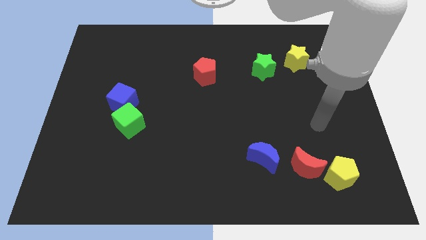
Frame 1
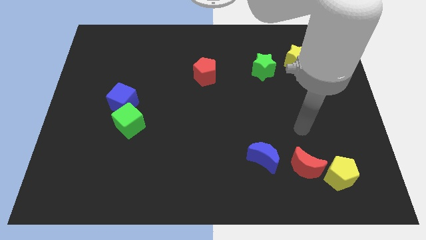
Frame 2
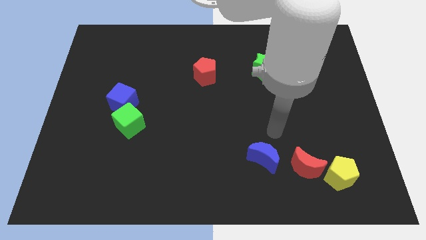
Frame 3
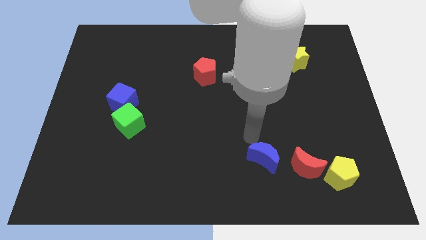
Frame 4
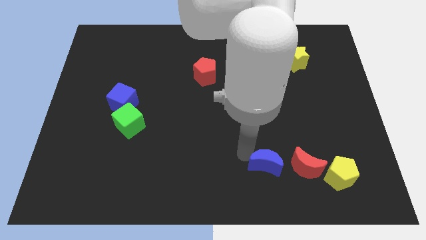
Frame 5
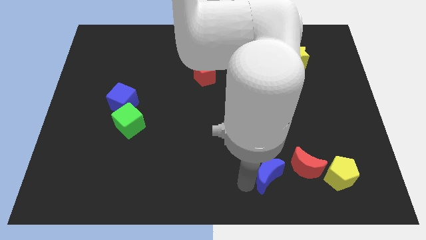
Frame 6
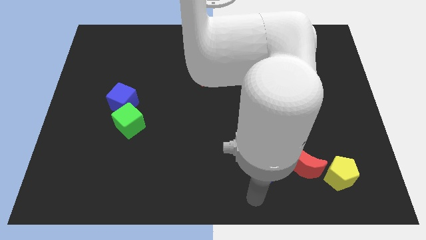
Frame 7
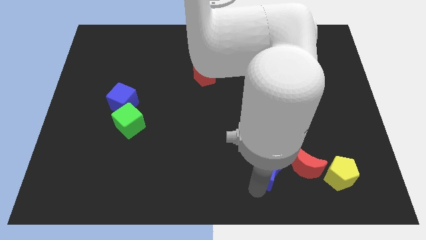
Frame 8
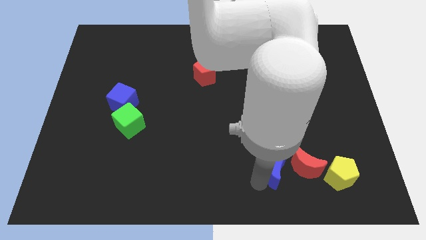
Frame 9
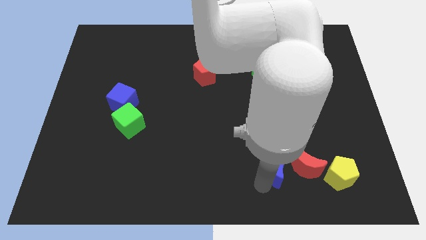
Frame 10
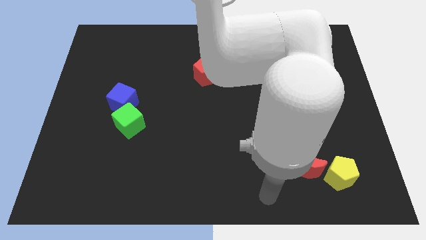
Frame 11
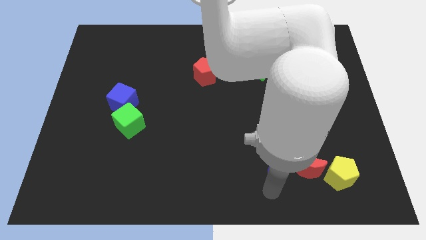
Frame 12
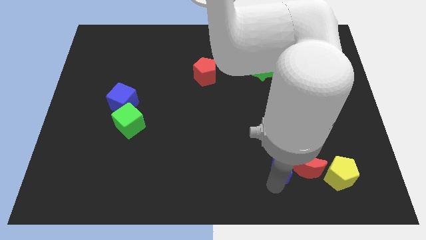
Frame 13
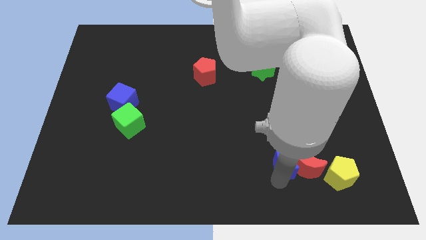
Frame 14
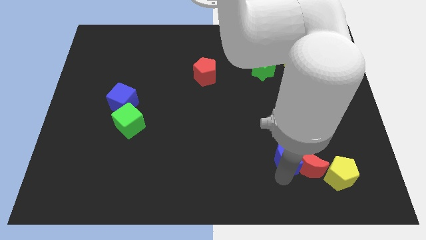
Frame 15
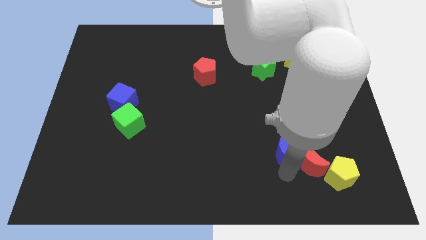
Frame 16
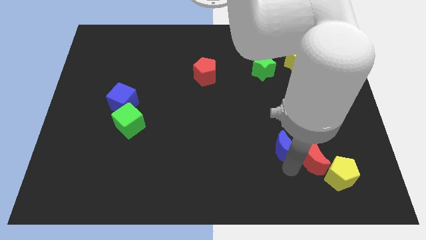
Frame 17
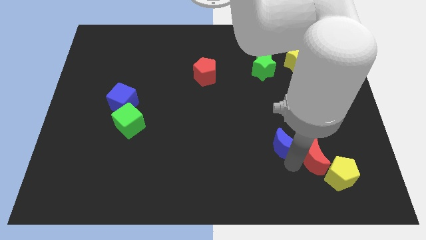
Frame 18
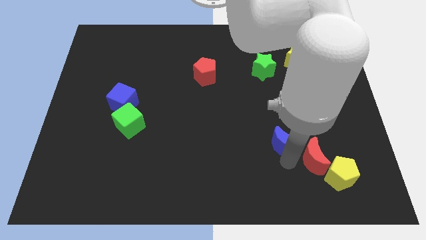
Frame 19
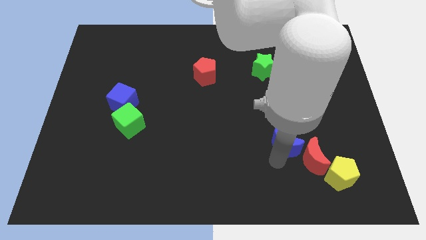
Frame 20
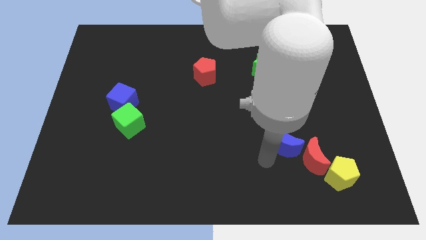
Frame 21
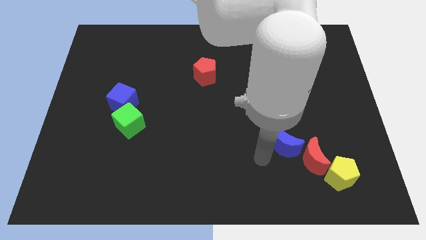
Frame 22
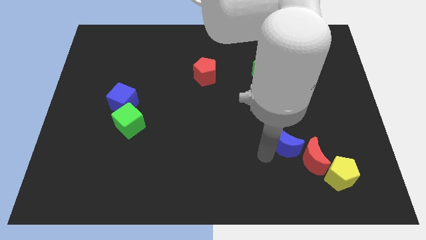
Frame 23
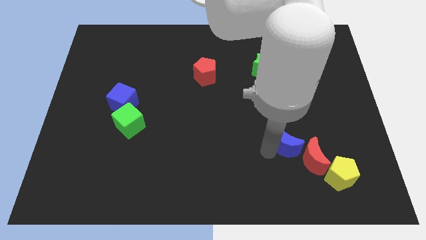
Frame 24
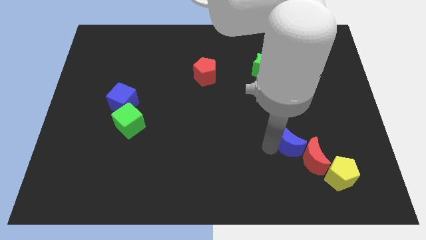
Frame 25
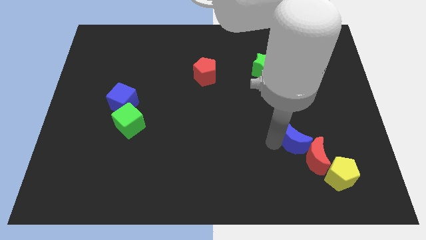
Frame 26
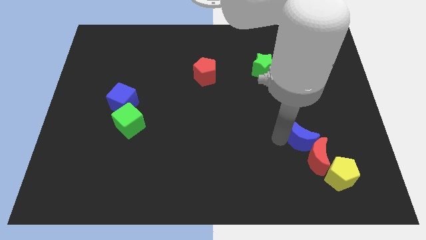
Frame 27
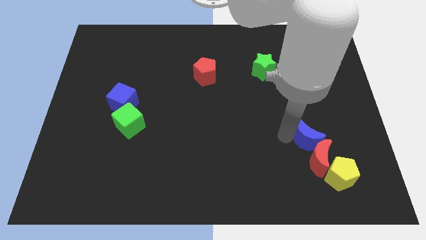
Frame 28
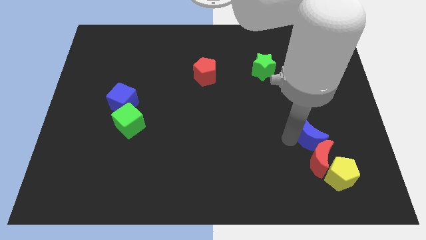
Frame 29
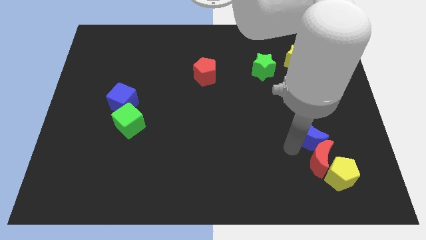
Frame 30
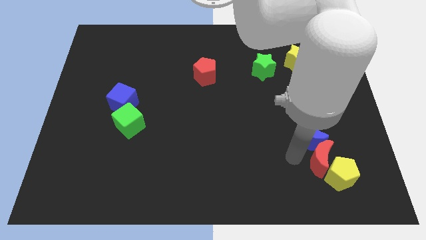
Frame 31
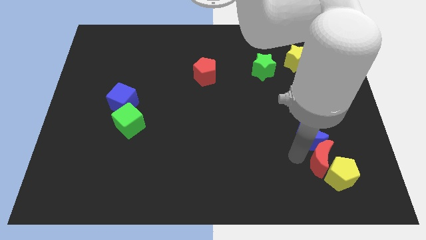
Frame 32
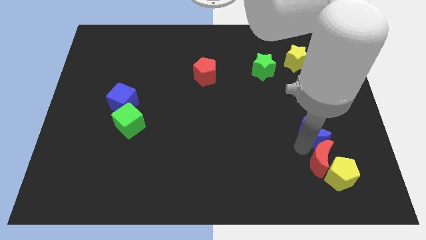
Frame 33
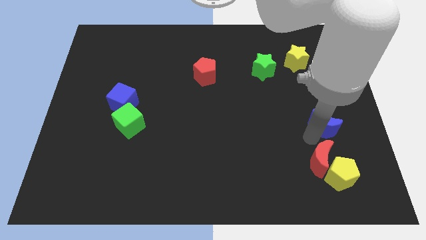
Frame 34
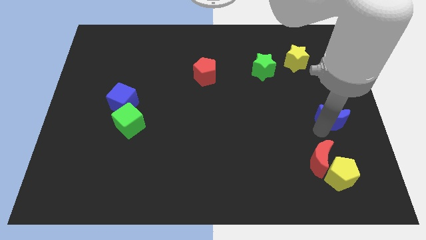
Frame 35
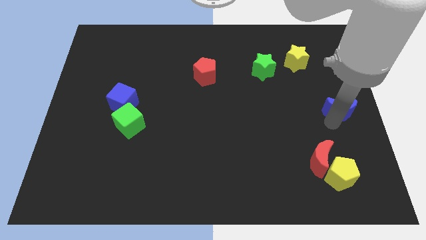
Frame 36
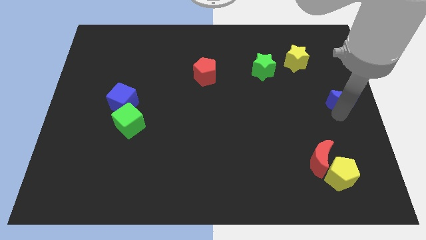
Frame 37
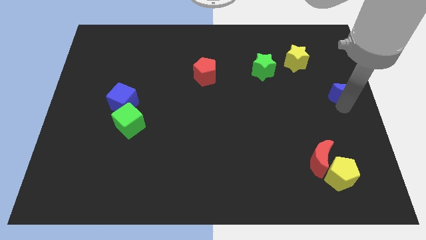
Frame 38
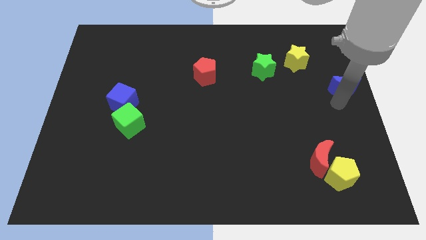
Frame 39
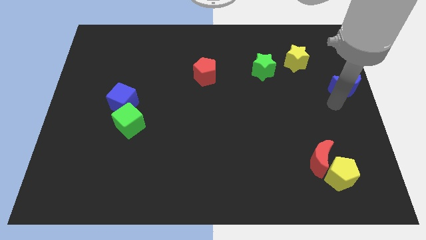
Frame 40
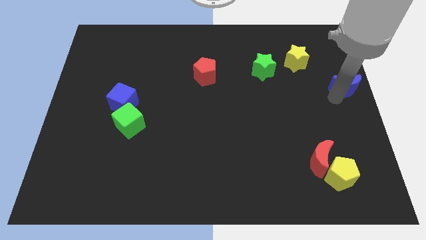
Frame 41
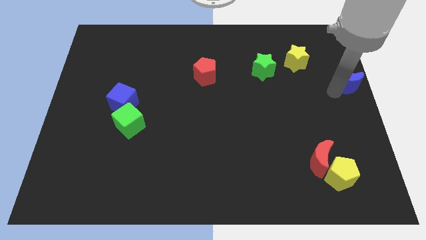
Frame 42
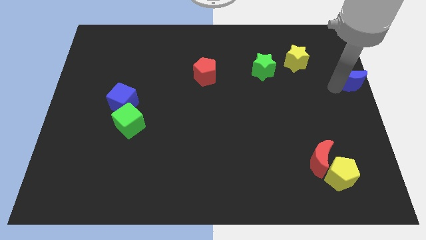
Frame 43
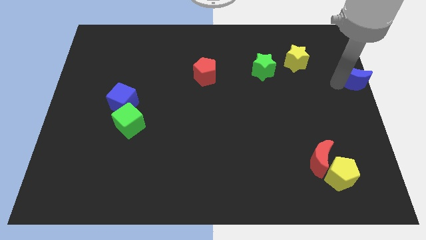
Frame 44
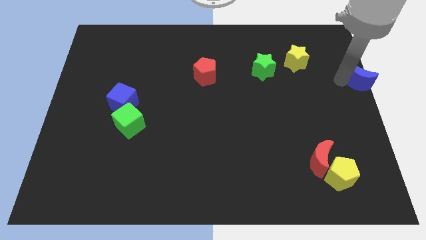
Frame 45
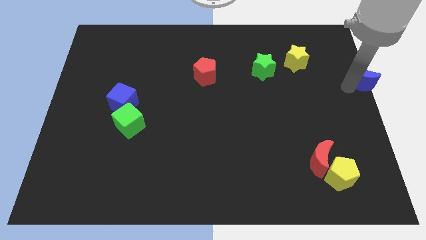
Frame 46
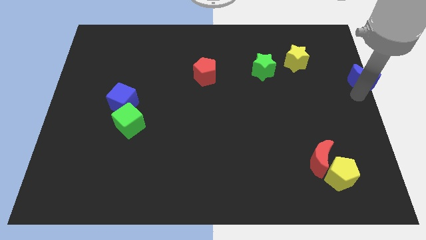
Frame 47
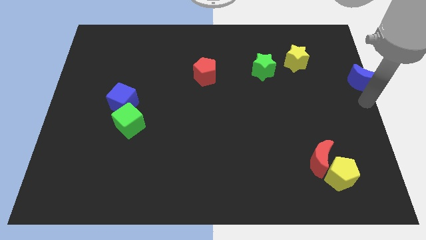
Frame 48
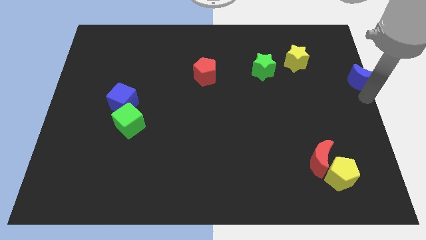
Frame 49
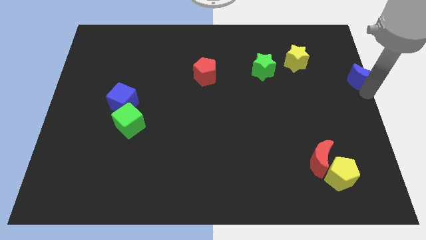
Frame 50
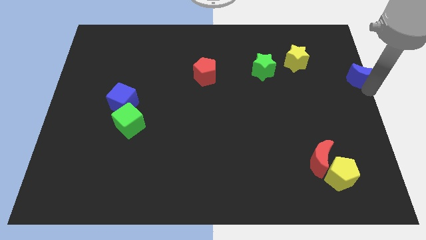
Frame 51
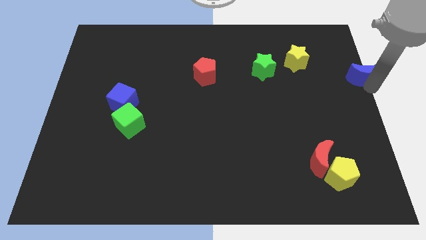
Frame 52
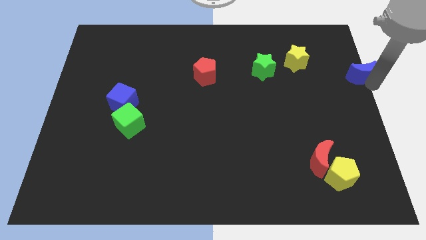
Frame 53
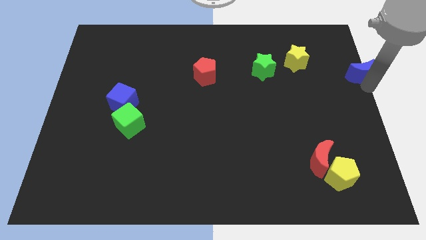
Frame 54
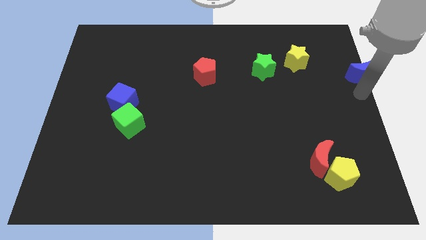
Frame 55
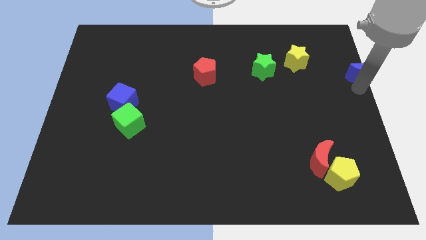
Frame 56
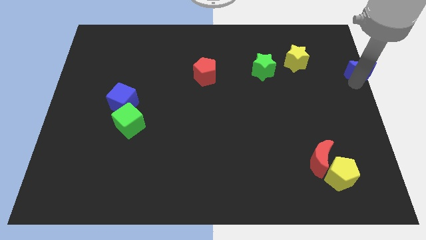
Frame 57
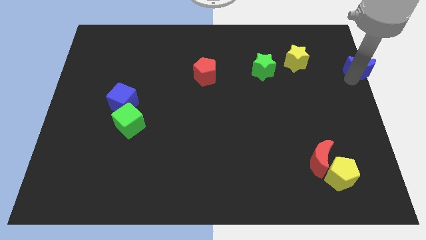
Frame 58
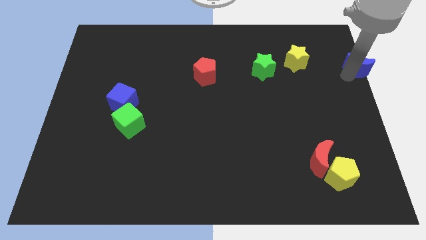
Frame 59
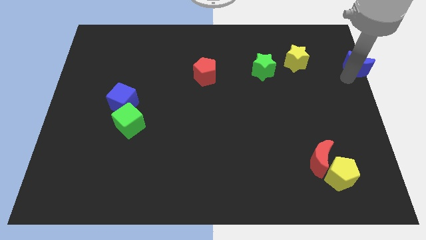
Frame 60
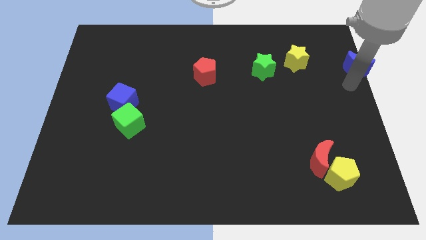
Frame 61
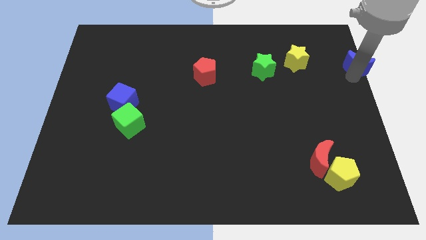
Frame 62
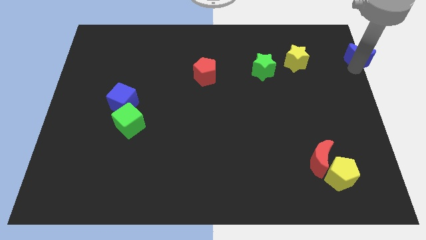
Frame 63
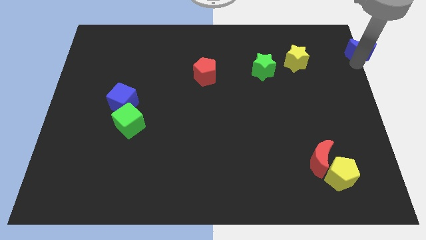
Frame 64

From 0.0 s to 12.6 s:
slide the blue moon to the top right of the board
